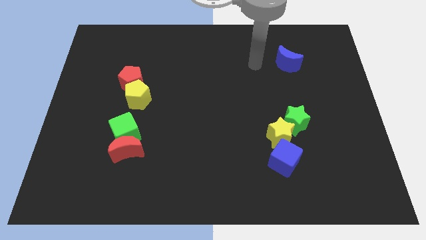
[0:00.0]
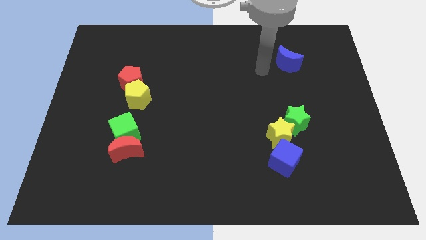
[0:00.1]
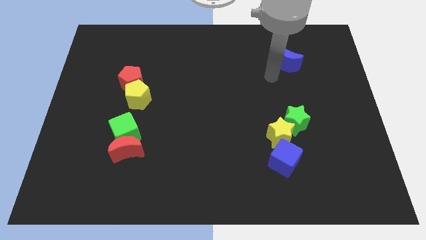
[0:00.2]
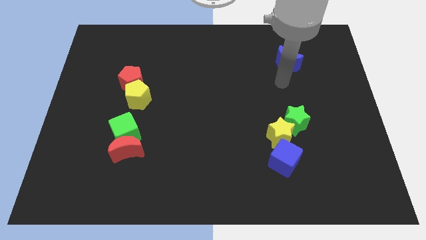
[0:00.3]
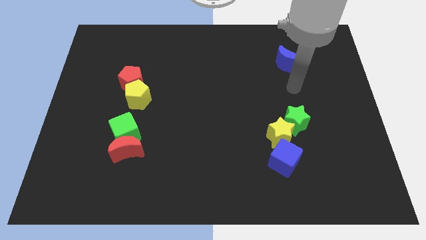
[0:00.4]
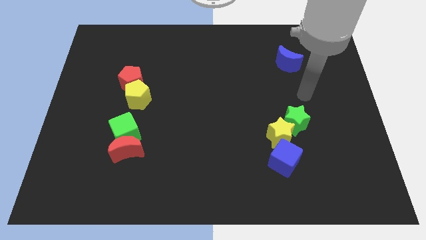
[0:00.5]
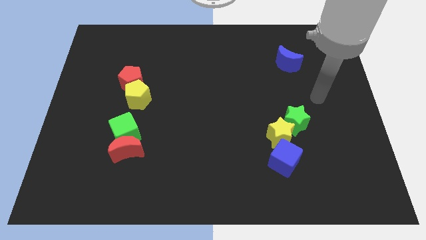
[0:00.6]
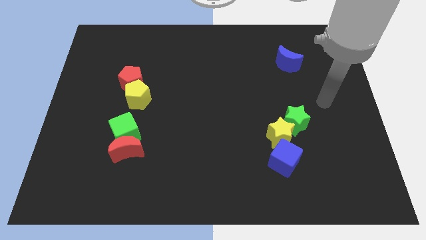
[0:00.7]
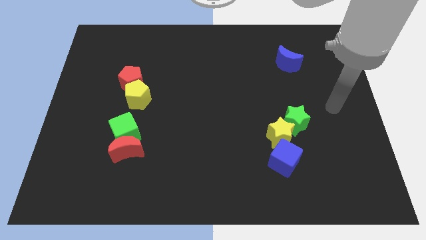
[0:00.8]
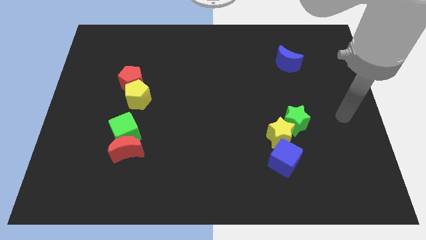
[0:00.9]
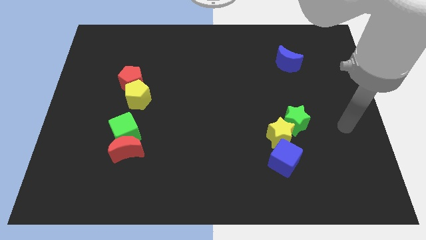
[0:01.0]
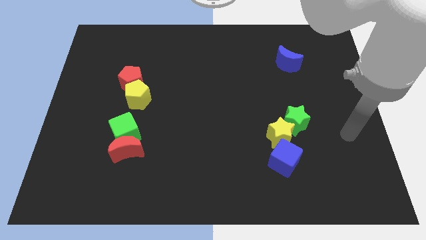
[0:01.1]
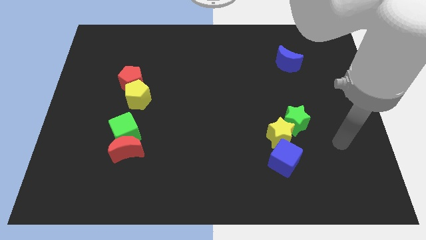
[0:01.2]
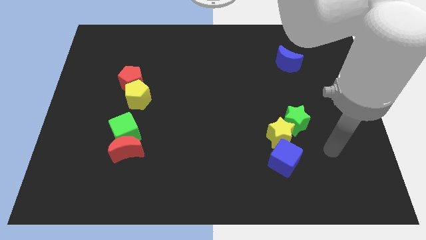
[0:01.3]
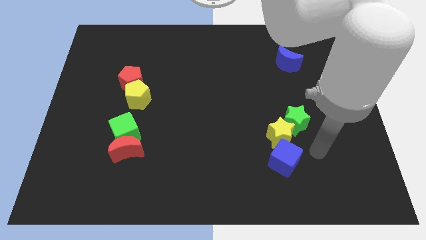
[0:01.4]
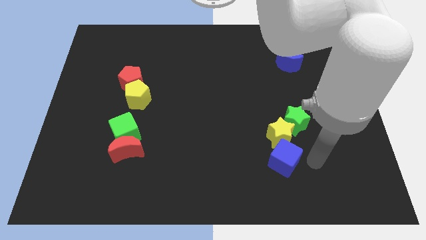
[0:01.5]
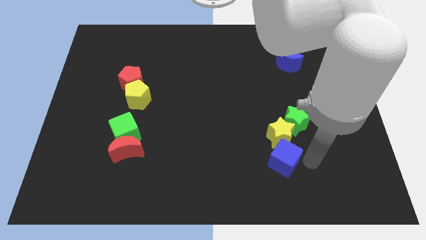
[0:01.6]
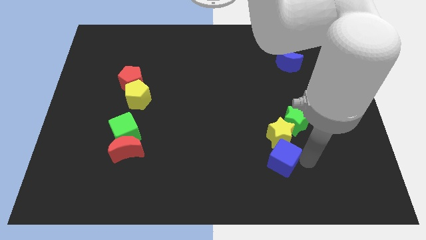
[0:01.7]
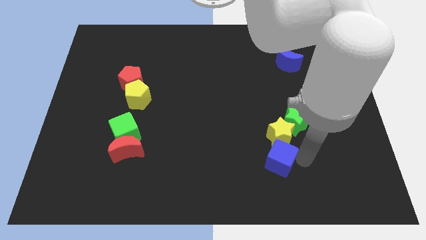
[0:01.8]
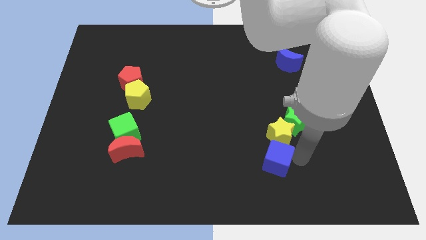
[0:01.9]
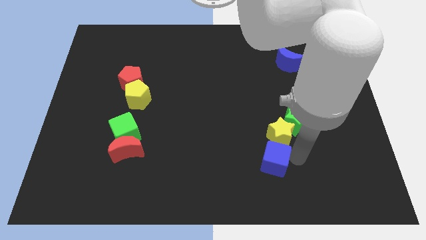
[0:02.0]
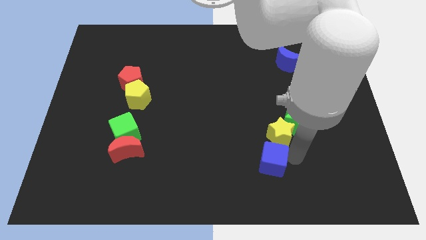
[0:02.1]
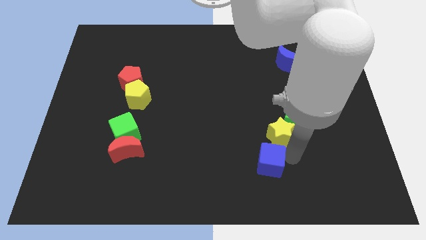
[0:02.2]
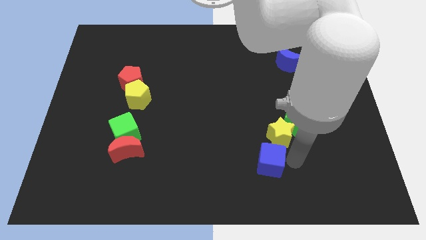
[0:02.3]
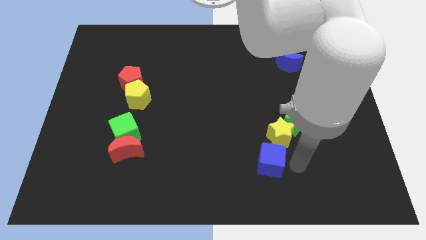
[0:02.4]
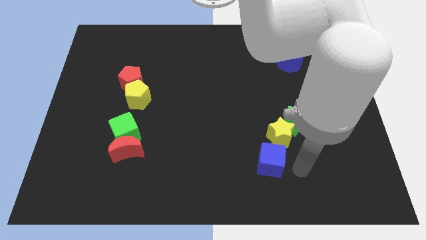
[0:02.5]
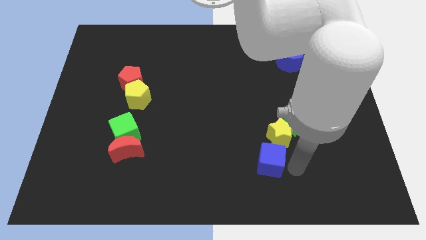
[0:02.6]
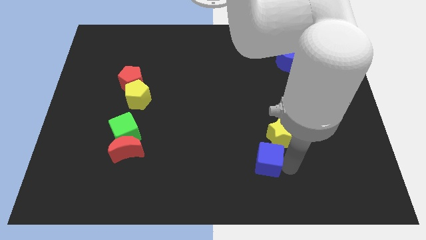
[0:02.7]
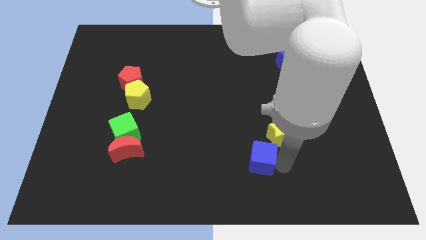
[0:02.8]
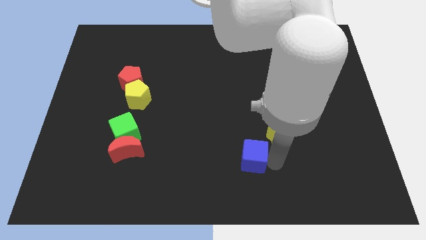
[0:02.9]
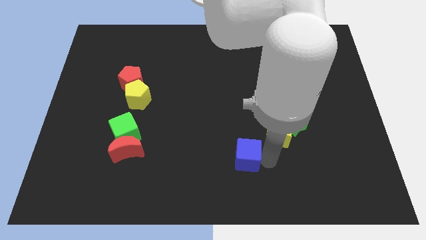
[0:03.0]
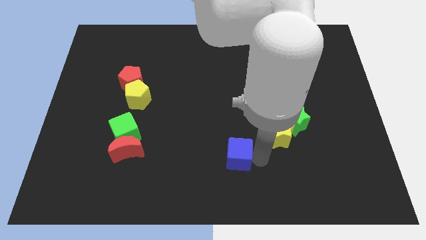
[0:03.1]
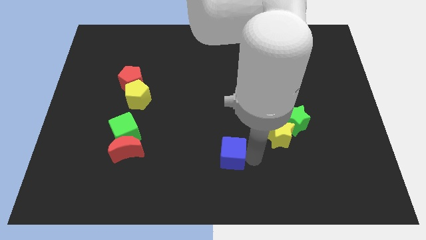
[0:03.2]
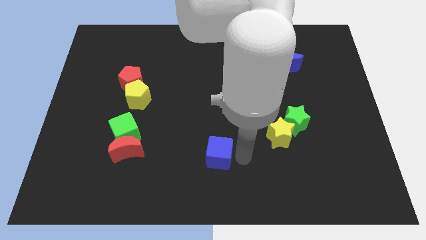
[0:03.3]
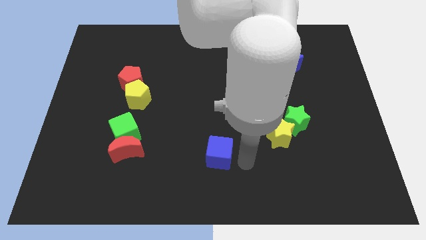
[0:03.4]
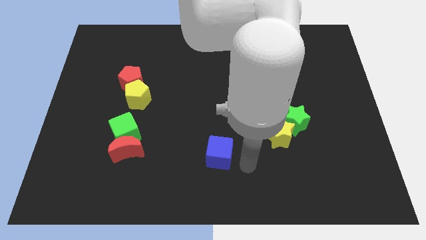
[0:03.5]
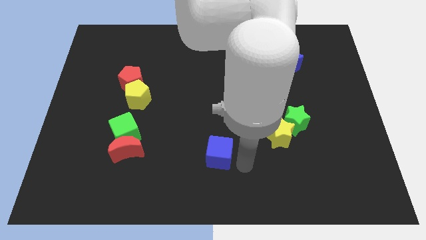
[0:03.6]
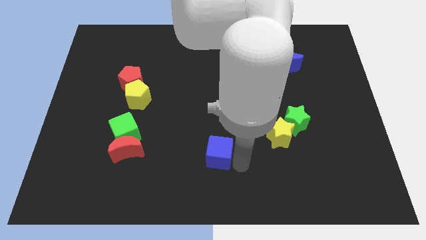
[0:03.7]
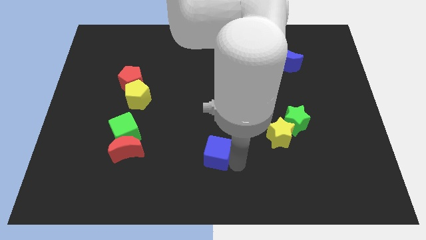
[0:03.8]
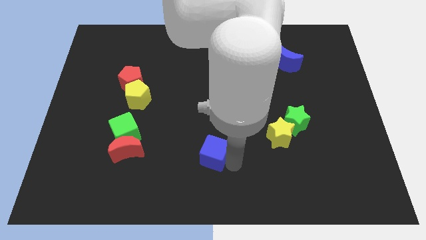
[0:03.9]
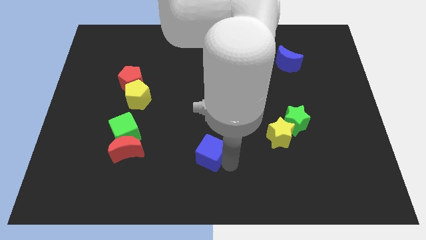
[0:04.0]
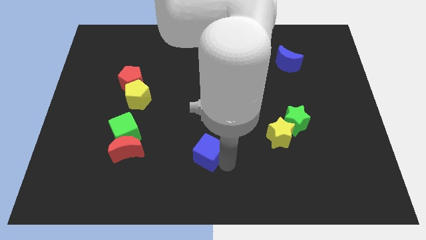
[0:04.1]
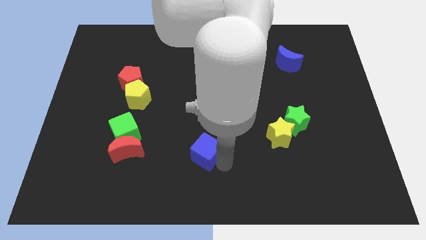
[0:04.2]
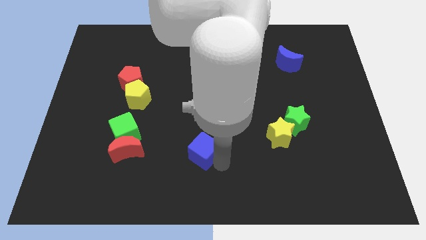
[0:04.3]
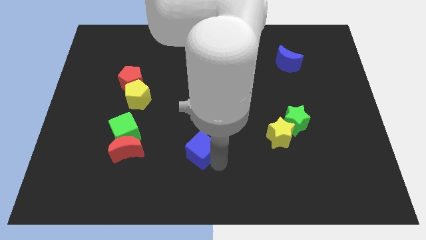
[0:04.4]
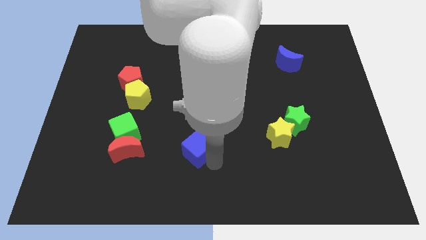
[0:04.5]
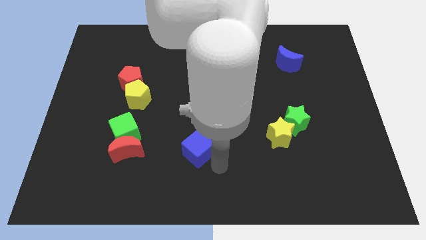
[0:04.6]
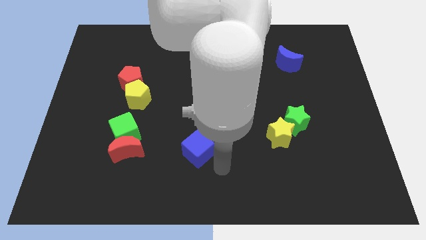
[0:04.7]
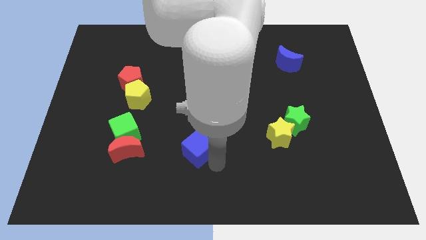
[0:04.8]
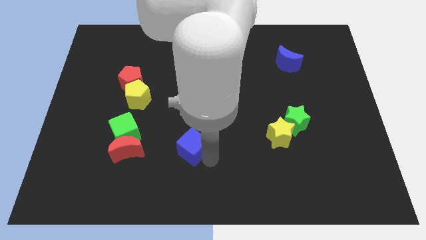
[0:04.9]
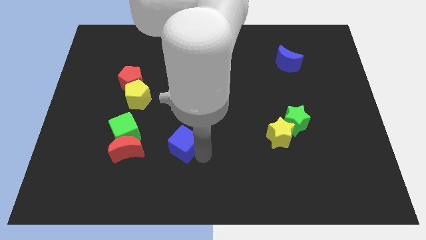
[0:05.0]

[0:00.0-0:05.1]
move the blue cube just right of the green cube

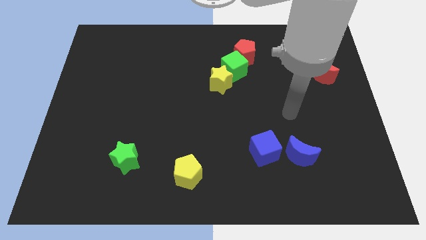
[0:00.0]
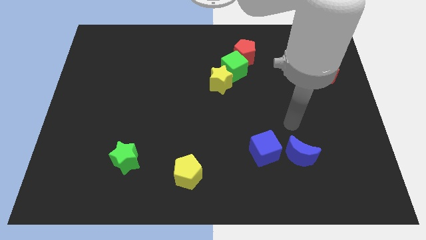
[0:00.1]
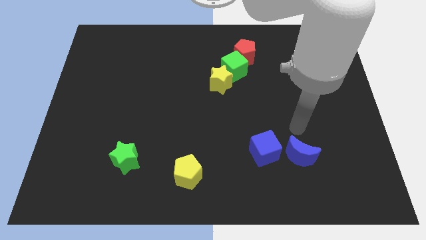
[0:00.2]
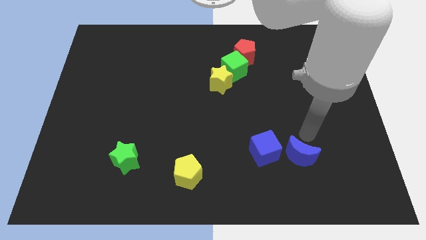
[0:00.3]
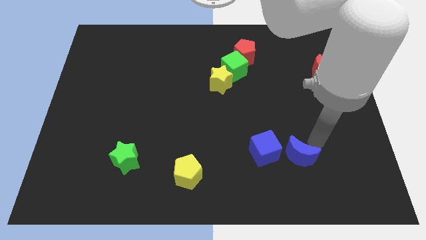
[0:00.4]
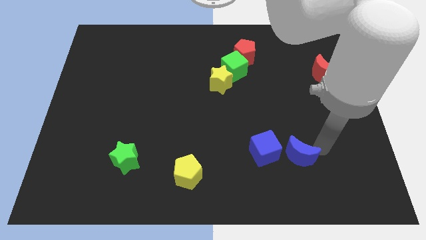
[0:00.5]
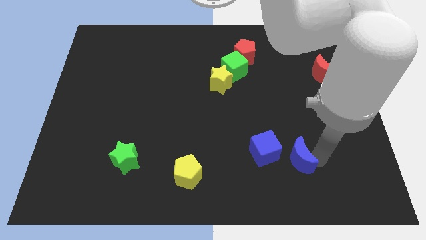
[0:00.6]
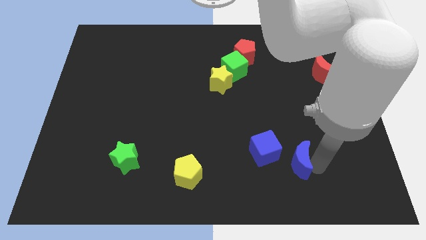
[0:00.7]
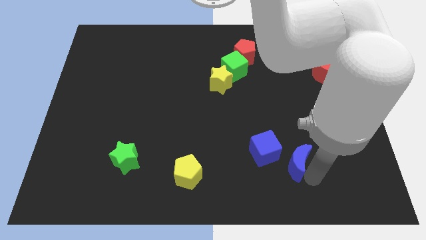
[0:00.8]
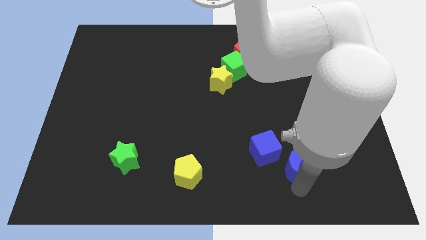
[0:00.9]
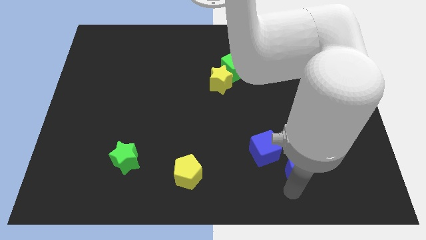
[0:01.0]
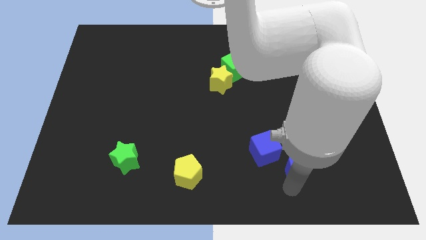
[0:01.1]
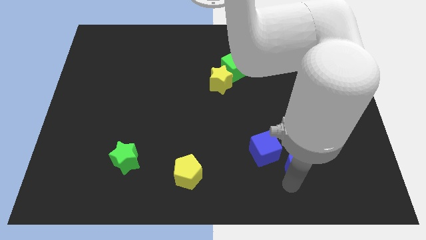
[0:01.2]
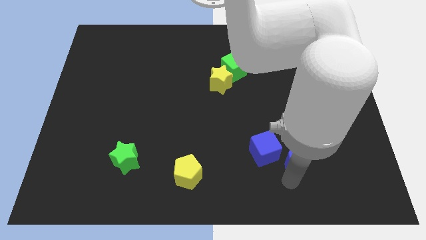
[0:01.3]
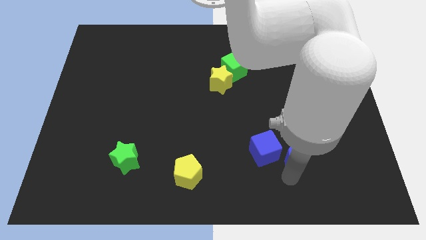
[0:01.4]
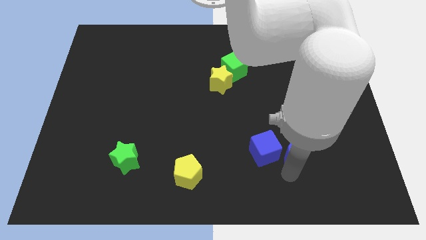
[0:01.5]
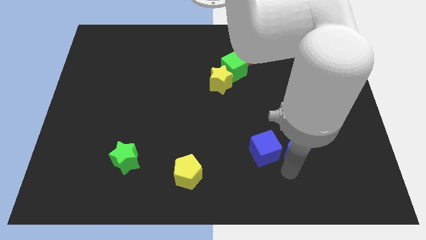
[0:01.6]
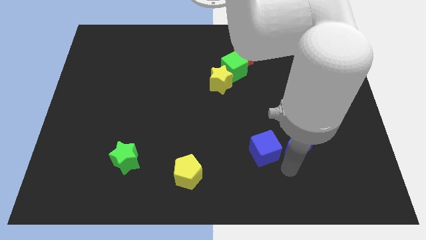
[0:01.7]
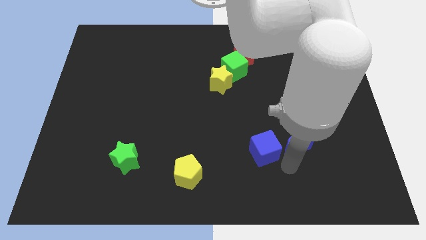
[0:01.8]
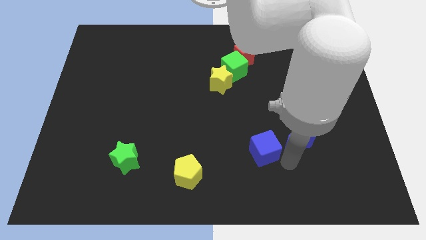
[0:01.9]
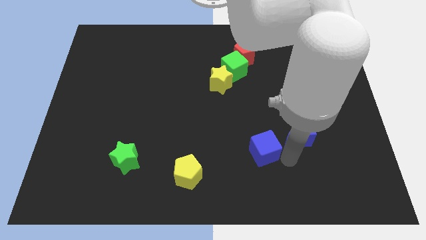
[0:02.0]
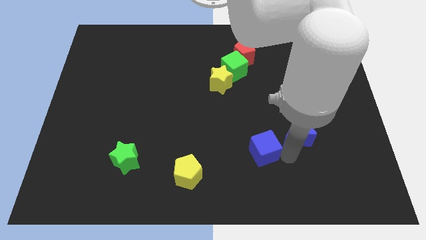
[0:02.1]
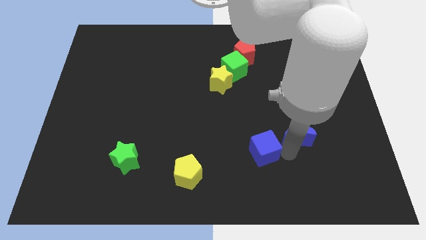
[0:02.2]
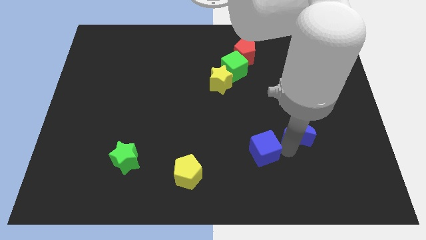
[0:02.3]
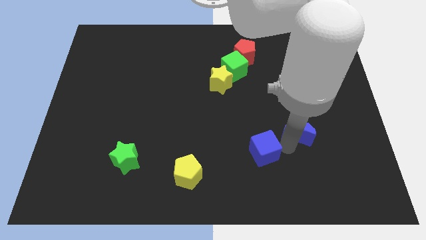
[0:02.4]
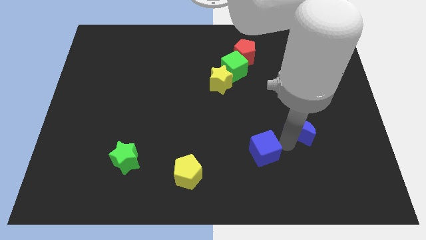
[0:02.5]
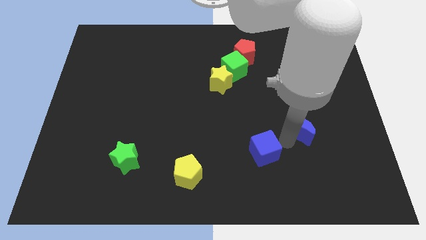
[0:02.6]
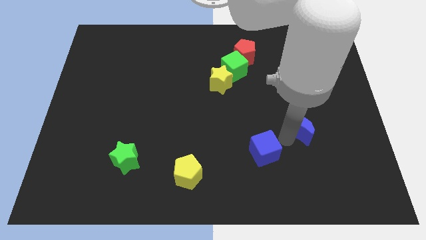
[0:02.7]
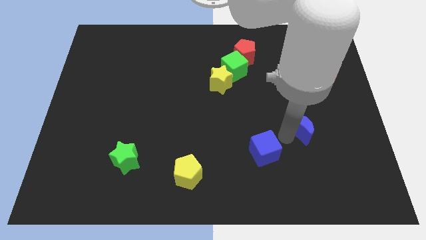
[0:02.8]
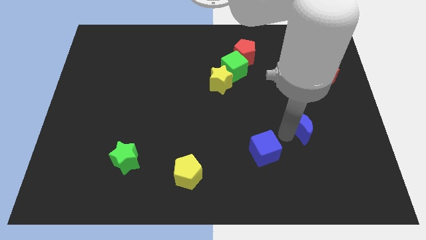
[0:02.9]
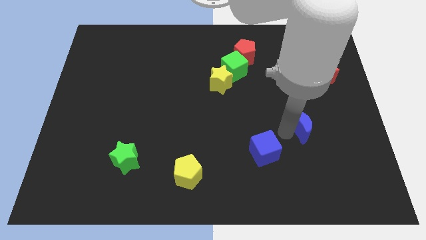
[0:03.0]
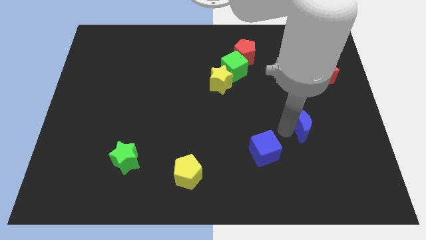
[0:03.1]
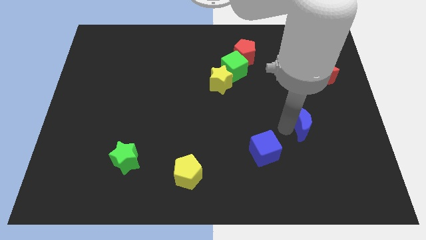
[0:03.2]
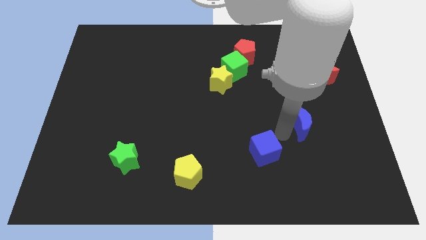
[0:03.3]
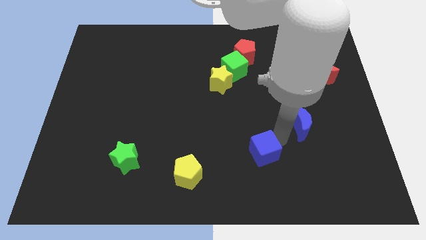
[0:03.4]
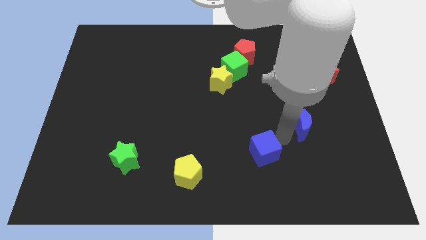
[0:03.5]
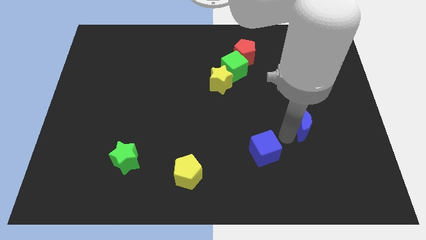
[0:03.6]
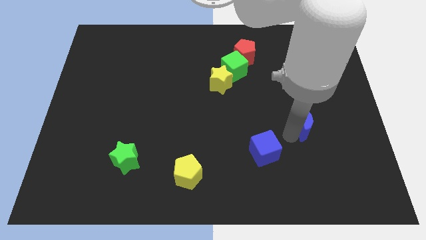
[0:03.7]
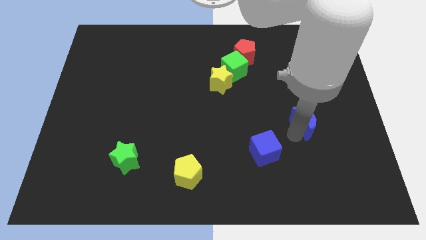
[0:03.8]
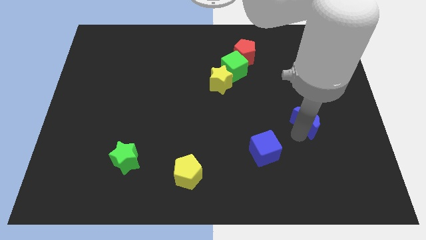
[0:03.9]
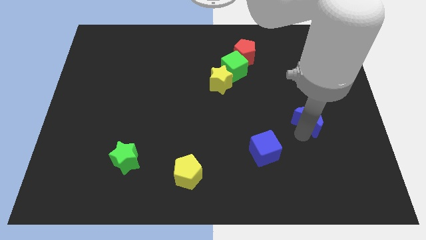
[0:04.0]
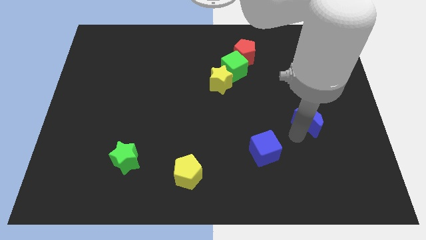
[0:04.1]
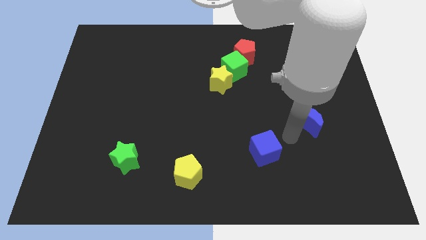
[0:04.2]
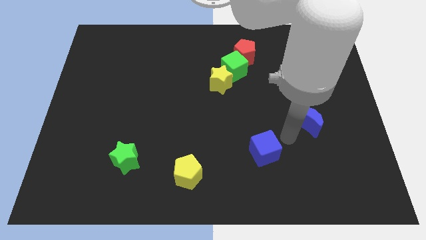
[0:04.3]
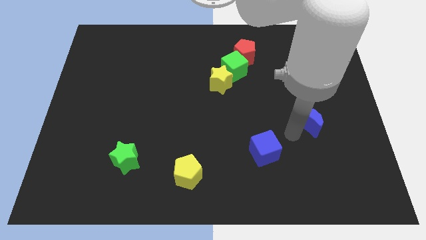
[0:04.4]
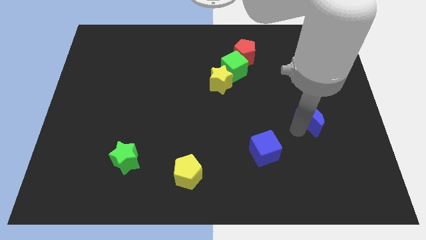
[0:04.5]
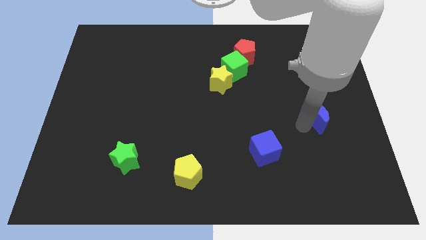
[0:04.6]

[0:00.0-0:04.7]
slide the blue moon to the bottom of the red moon
